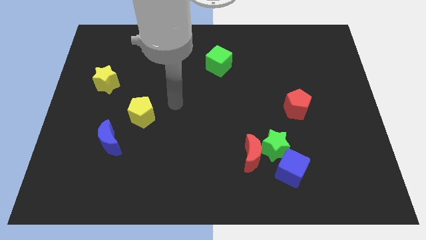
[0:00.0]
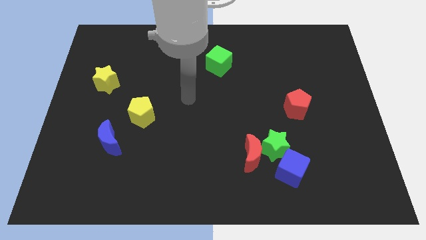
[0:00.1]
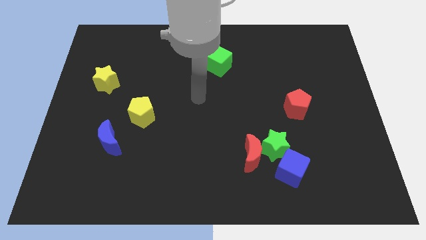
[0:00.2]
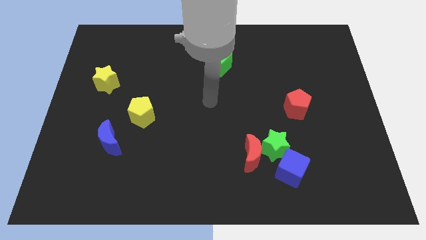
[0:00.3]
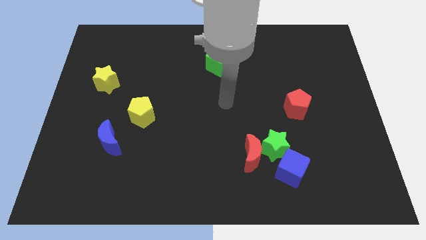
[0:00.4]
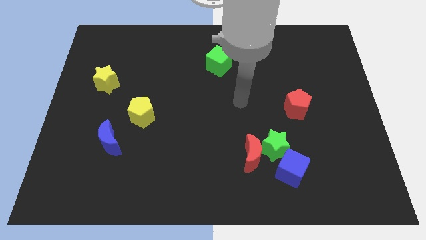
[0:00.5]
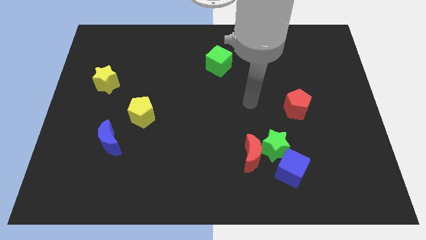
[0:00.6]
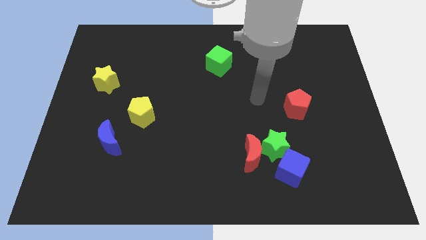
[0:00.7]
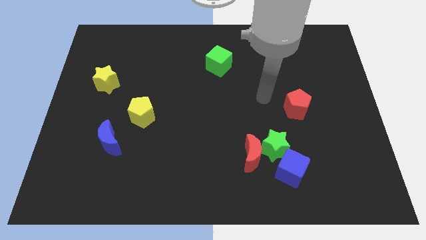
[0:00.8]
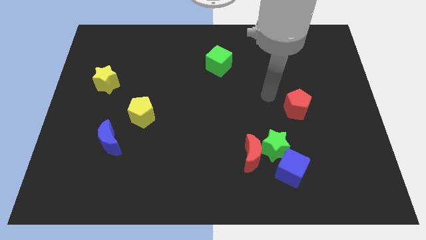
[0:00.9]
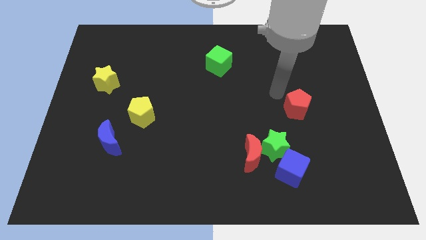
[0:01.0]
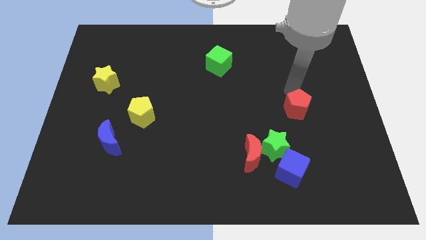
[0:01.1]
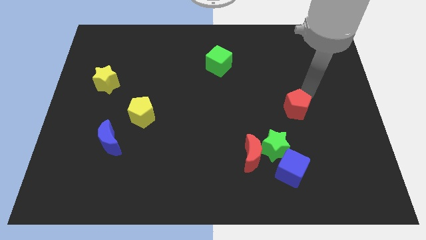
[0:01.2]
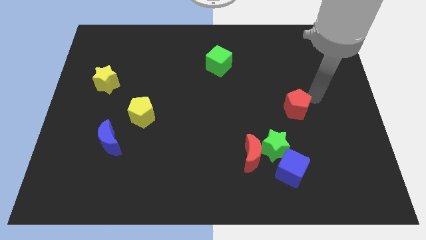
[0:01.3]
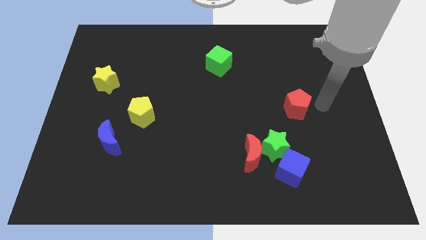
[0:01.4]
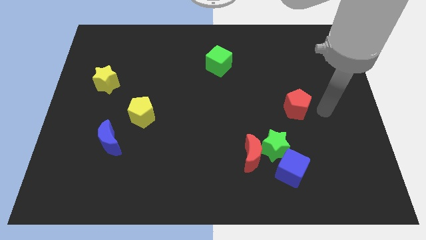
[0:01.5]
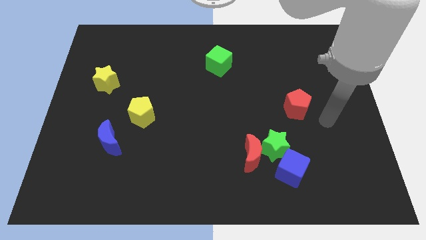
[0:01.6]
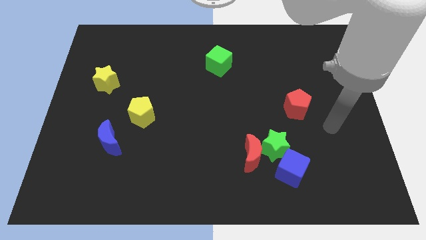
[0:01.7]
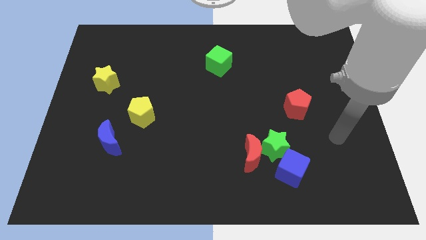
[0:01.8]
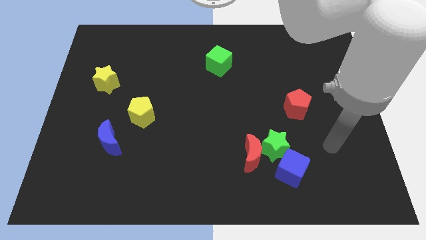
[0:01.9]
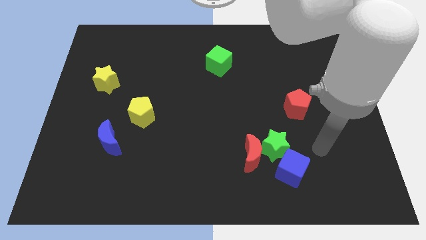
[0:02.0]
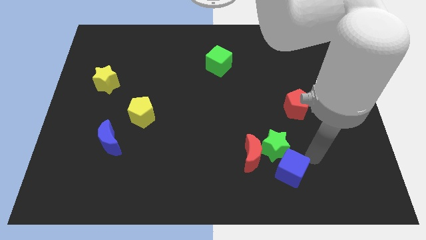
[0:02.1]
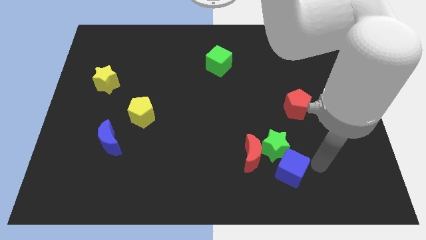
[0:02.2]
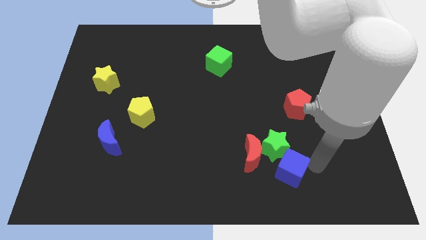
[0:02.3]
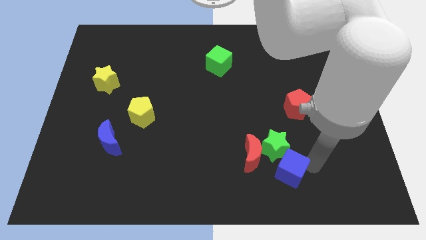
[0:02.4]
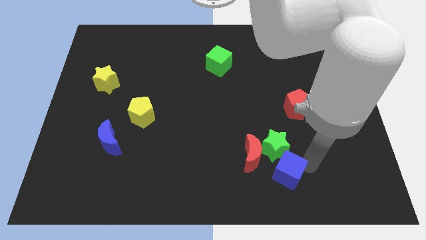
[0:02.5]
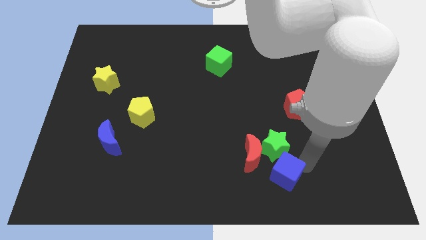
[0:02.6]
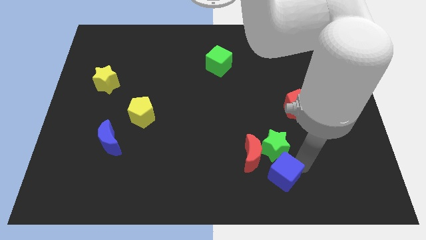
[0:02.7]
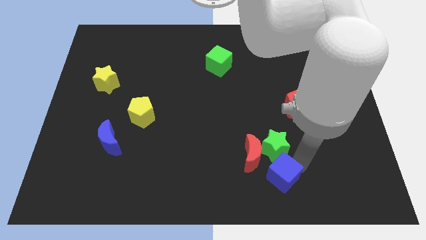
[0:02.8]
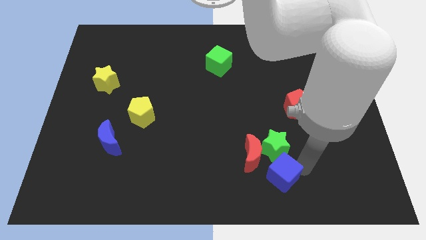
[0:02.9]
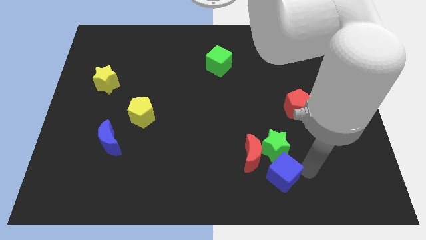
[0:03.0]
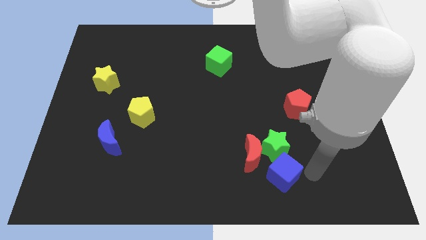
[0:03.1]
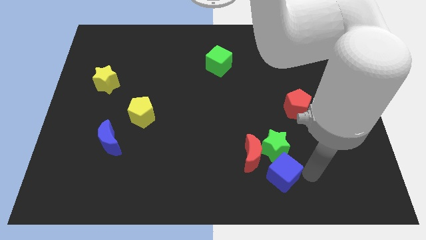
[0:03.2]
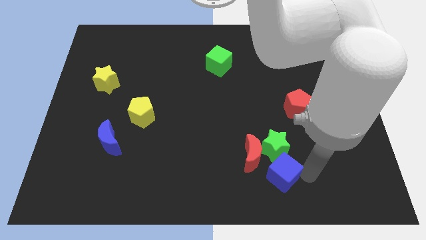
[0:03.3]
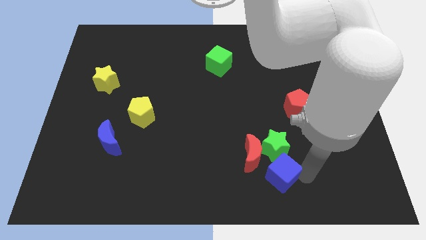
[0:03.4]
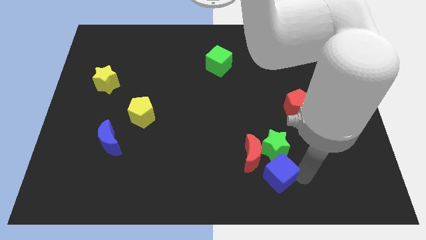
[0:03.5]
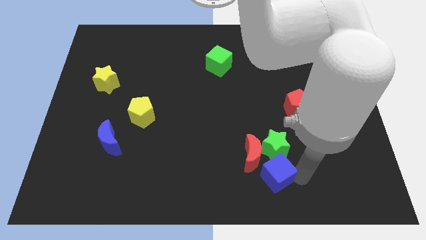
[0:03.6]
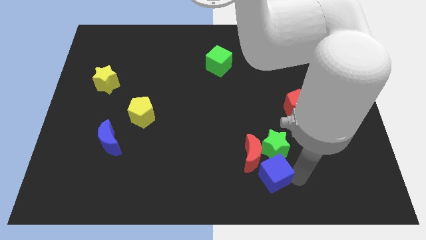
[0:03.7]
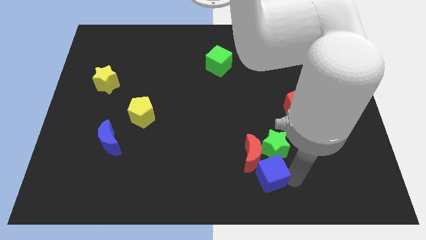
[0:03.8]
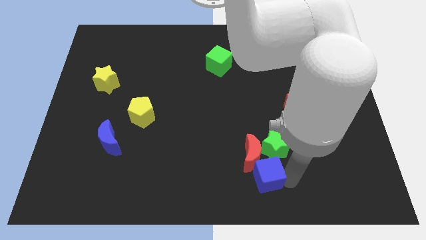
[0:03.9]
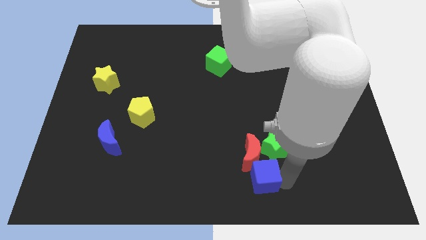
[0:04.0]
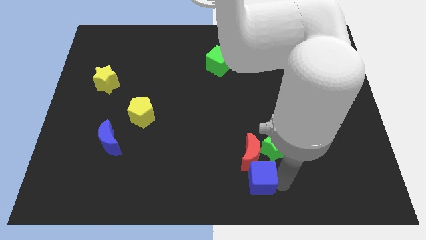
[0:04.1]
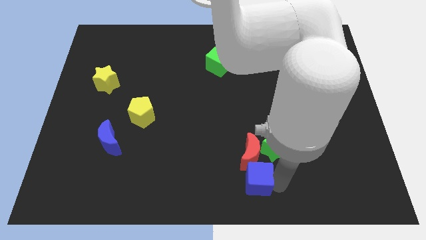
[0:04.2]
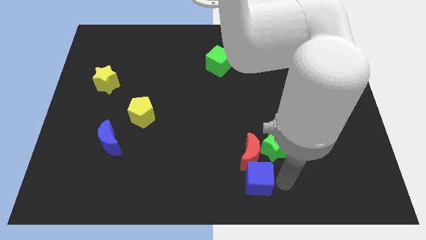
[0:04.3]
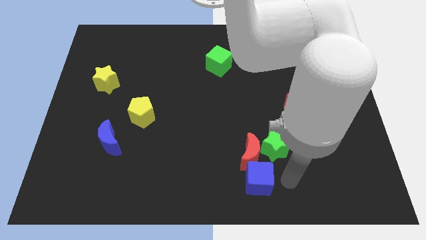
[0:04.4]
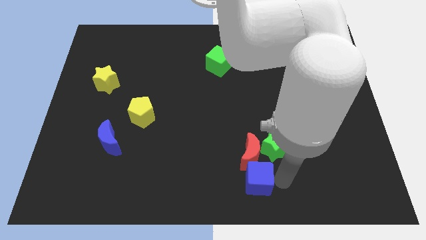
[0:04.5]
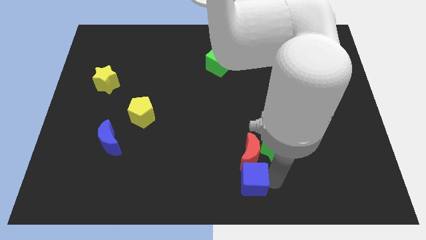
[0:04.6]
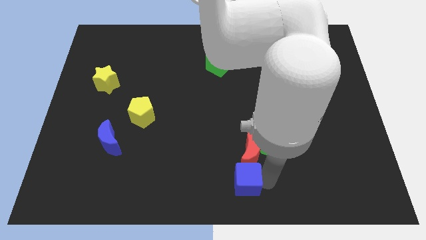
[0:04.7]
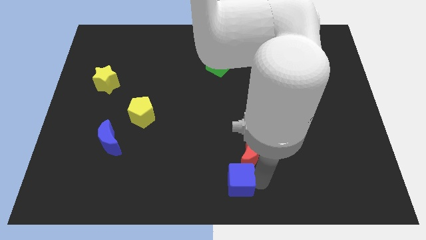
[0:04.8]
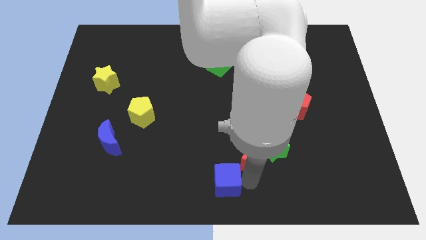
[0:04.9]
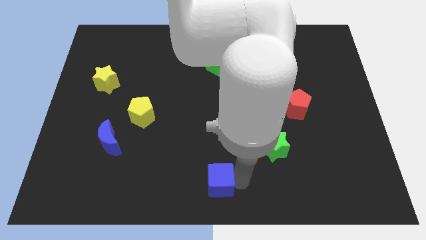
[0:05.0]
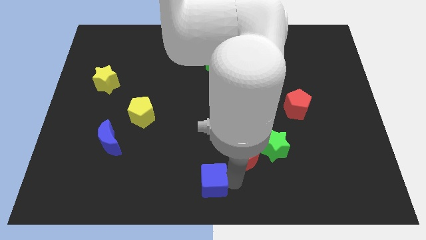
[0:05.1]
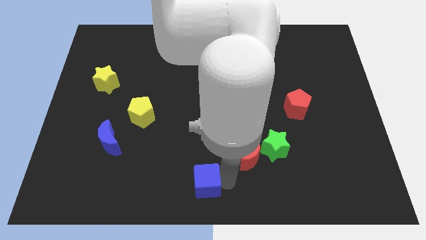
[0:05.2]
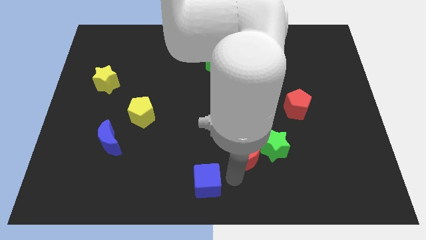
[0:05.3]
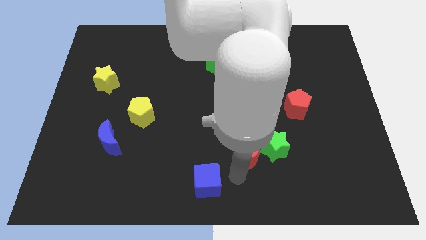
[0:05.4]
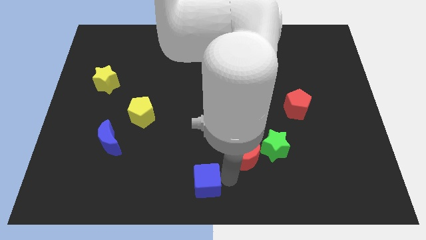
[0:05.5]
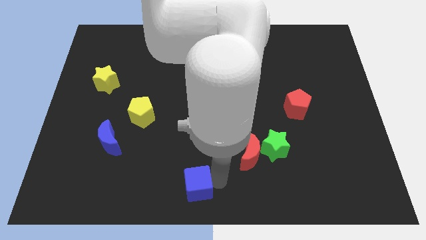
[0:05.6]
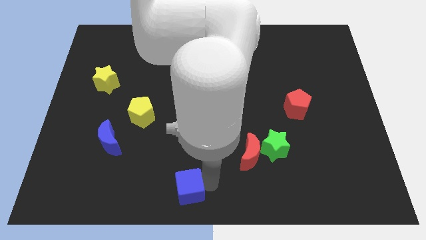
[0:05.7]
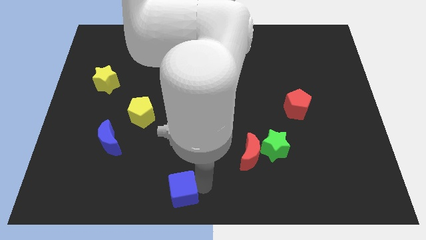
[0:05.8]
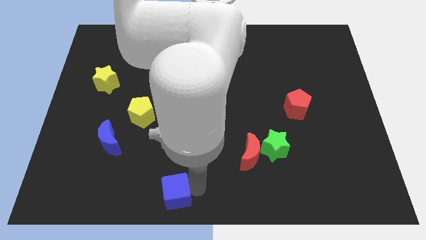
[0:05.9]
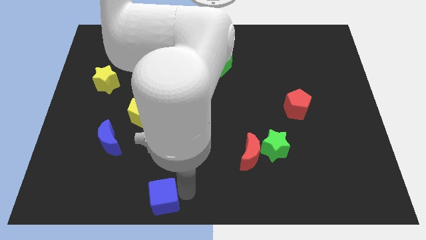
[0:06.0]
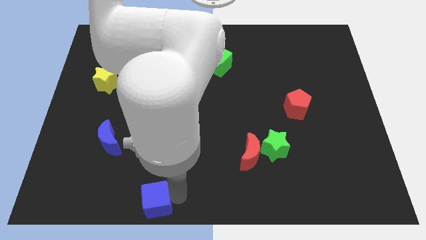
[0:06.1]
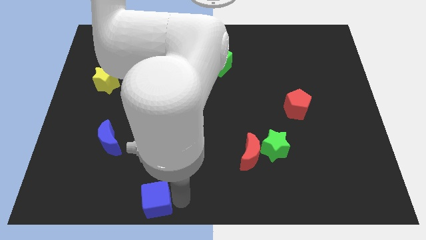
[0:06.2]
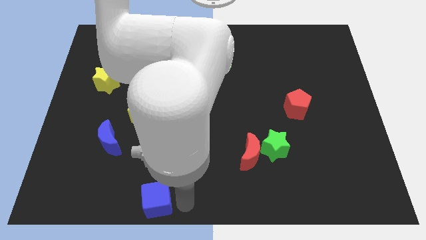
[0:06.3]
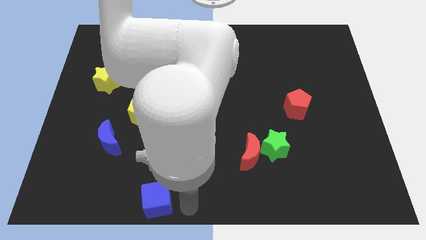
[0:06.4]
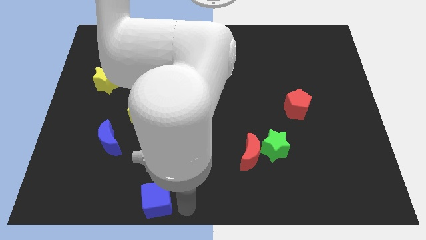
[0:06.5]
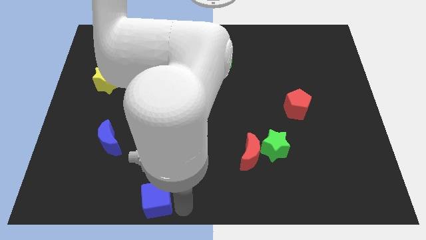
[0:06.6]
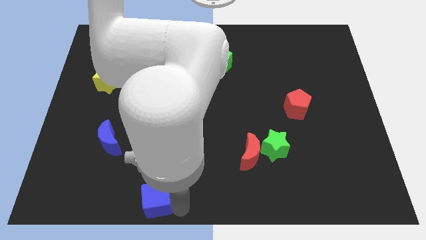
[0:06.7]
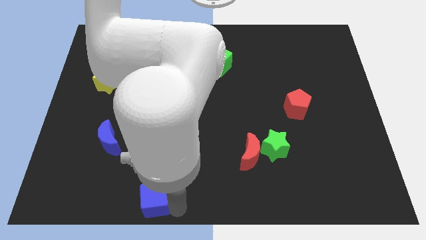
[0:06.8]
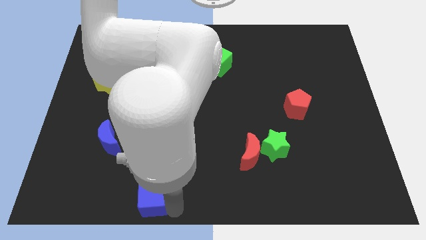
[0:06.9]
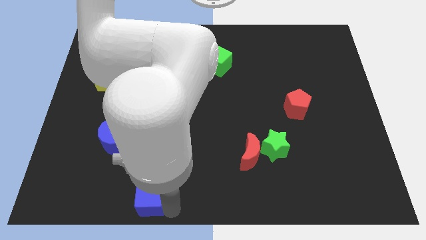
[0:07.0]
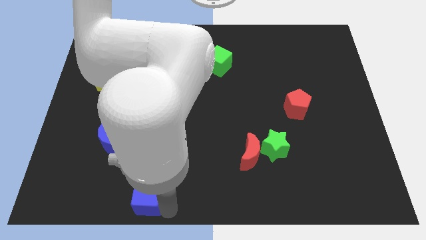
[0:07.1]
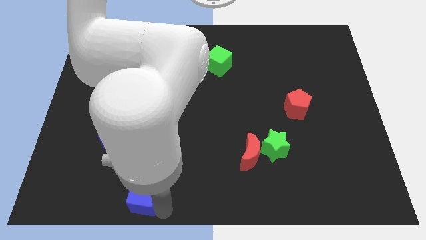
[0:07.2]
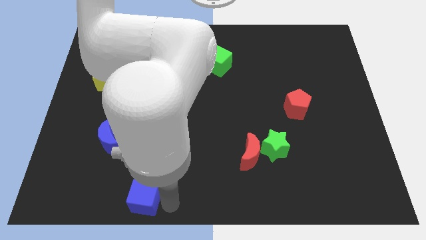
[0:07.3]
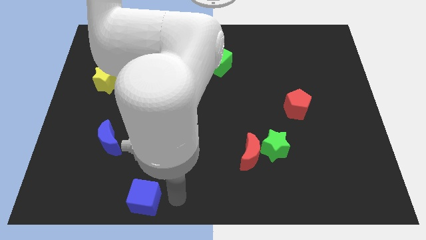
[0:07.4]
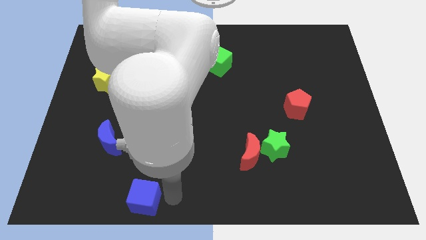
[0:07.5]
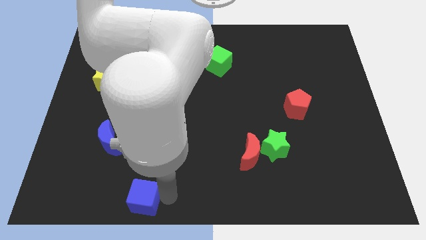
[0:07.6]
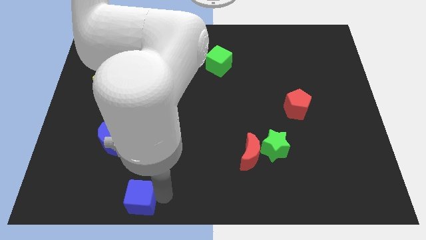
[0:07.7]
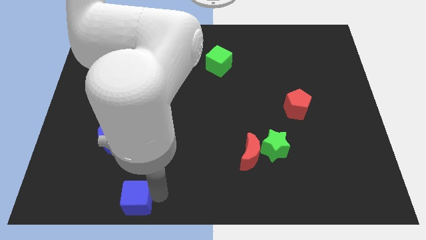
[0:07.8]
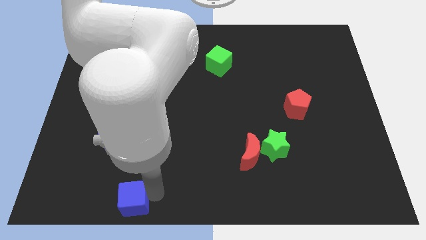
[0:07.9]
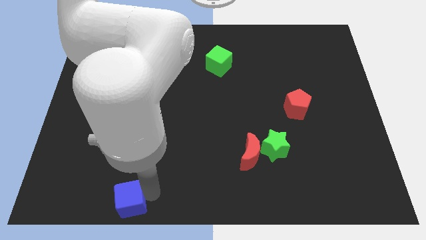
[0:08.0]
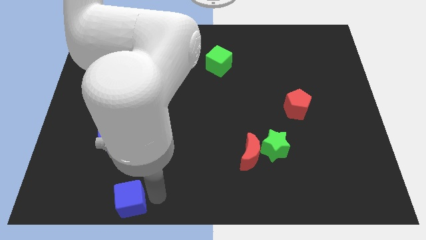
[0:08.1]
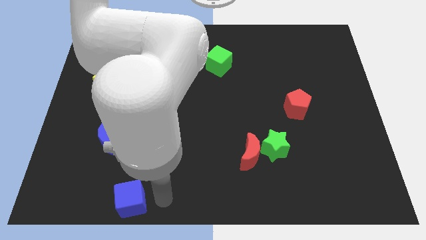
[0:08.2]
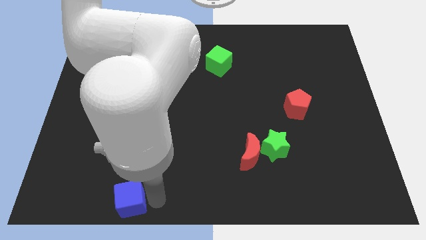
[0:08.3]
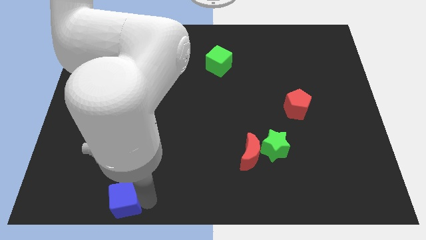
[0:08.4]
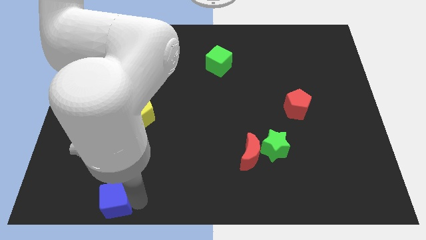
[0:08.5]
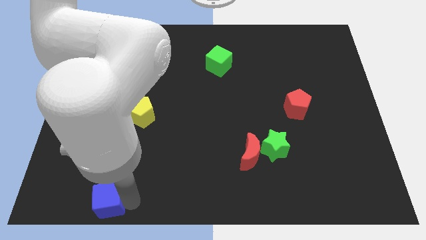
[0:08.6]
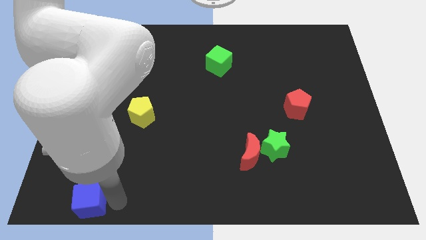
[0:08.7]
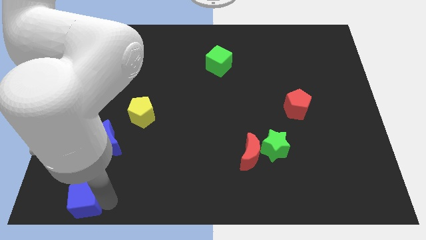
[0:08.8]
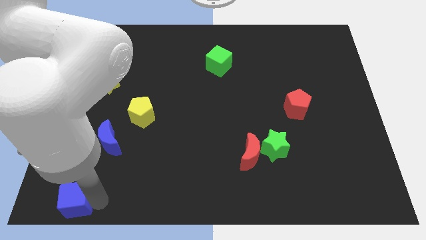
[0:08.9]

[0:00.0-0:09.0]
put the blue cube to the bottom left
